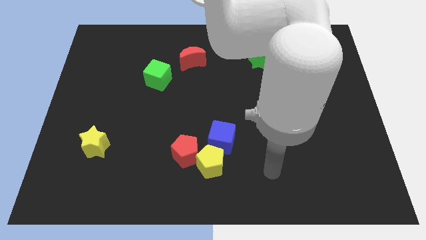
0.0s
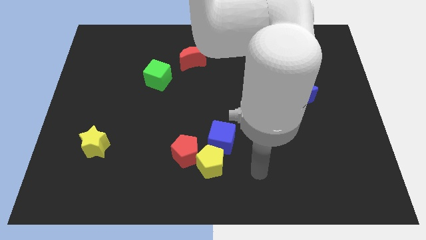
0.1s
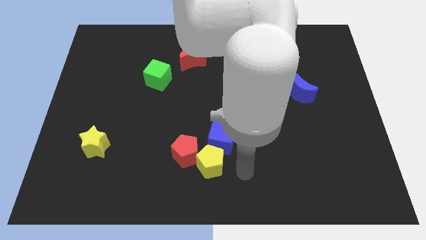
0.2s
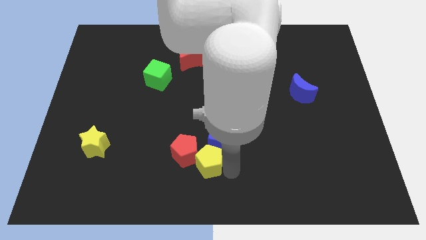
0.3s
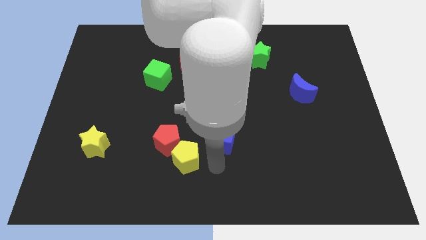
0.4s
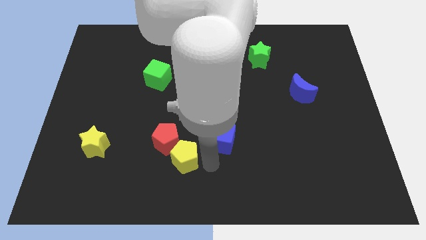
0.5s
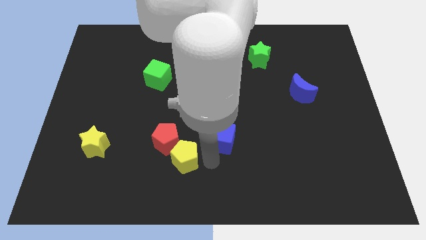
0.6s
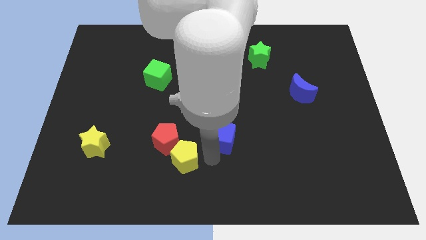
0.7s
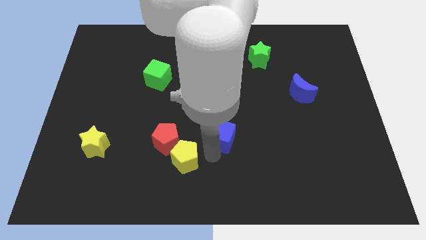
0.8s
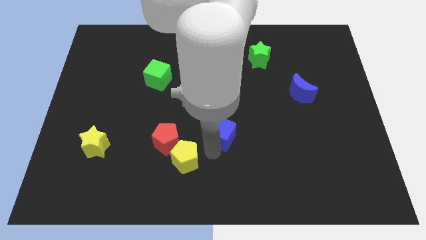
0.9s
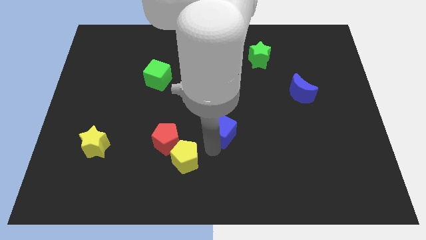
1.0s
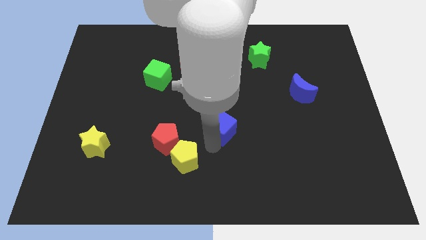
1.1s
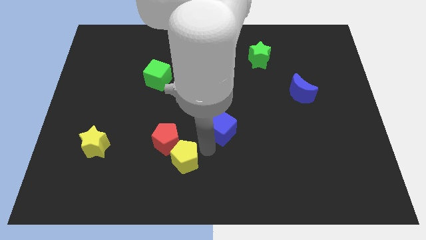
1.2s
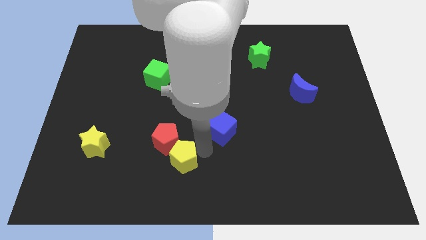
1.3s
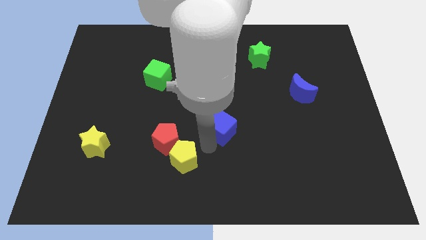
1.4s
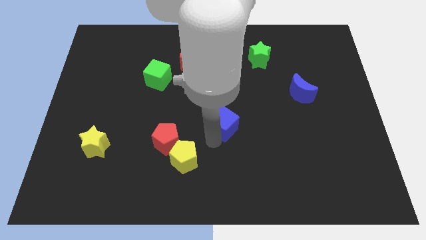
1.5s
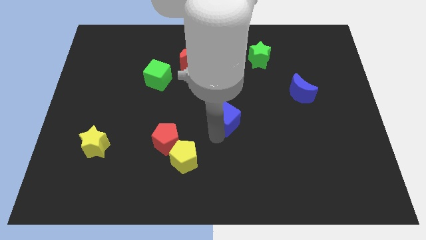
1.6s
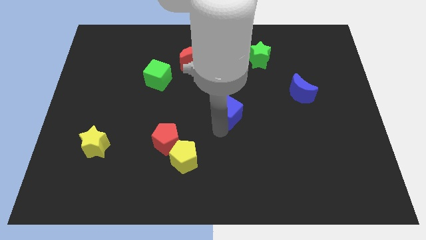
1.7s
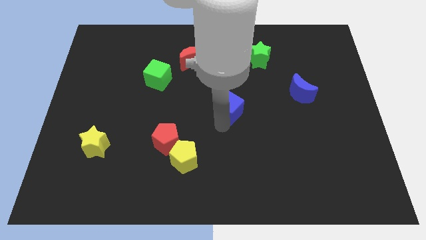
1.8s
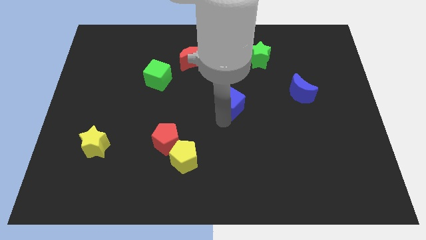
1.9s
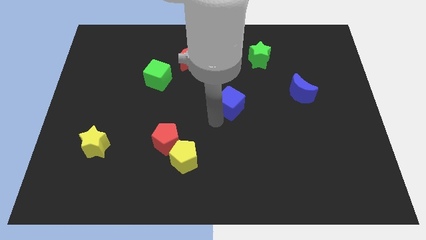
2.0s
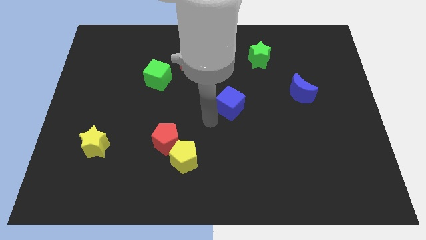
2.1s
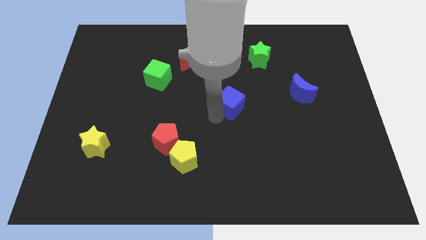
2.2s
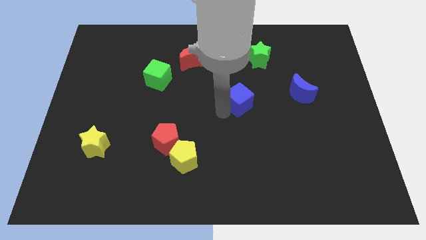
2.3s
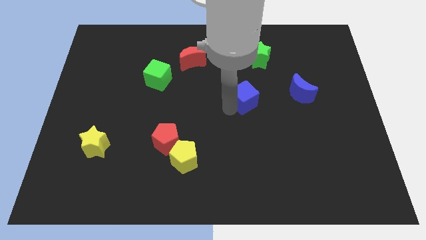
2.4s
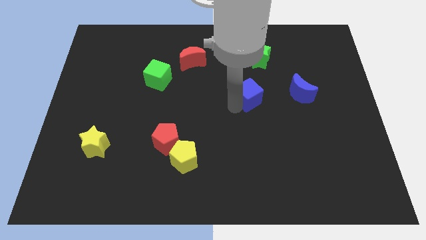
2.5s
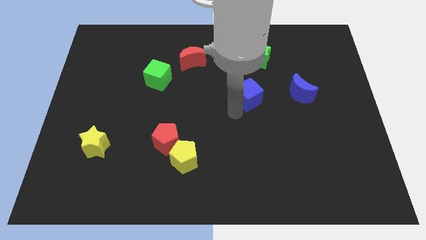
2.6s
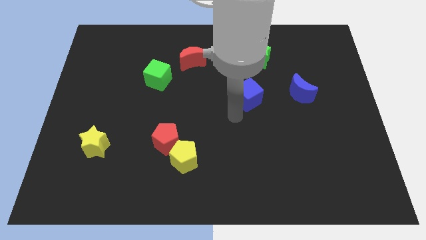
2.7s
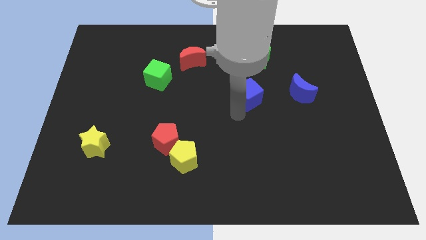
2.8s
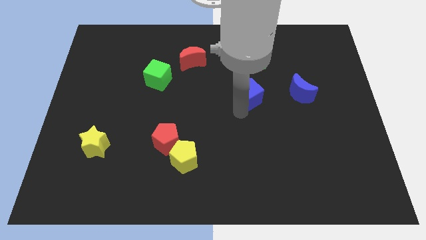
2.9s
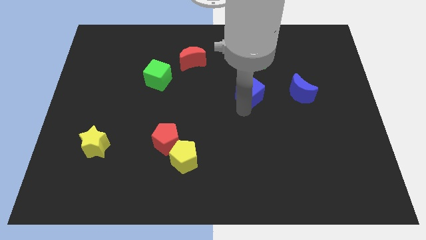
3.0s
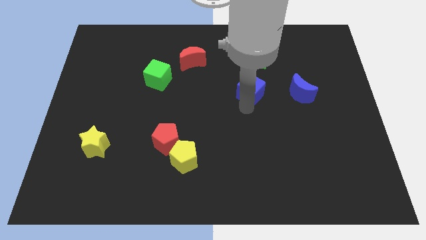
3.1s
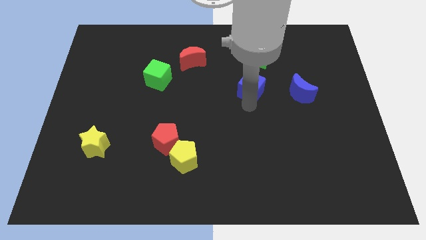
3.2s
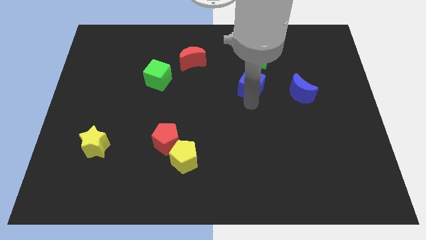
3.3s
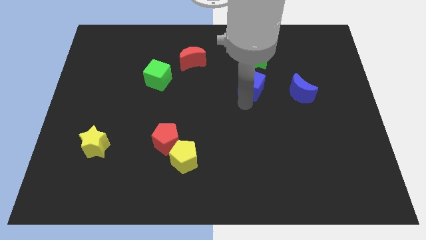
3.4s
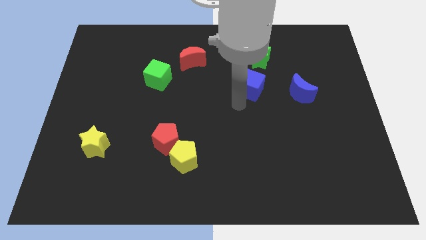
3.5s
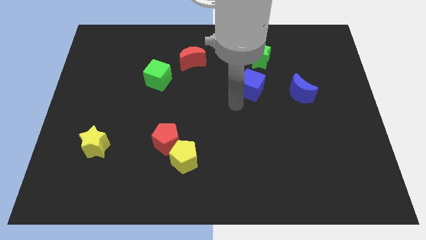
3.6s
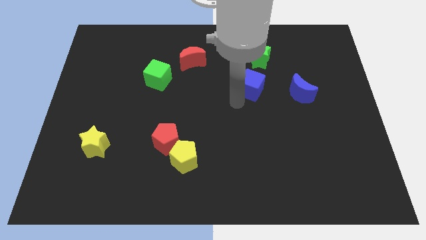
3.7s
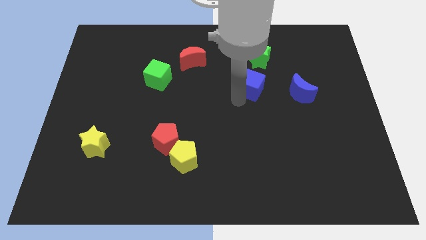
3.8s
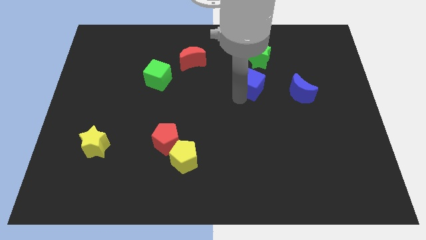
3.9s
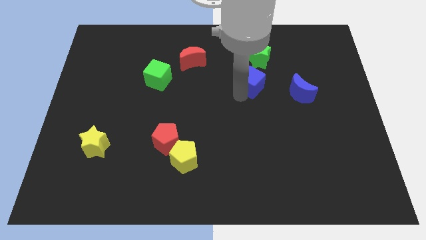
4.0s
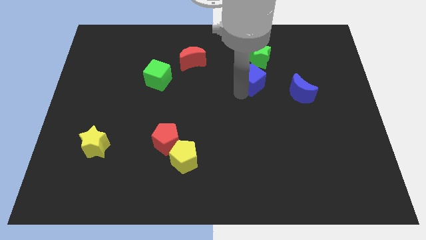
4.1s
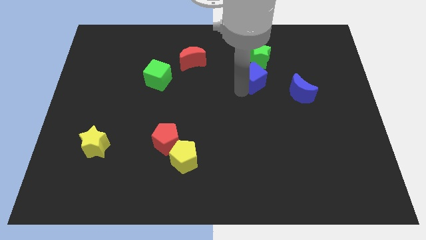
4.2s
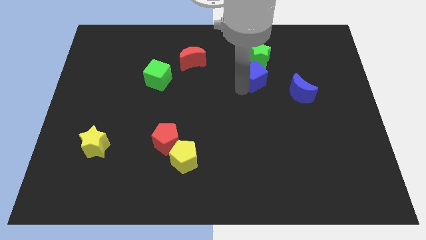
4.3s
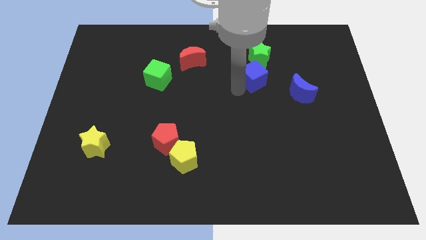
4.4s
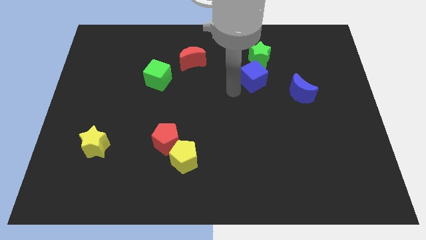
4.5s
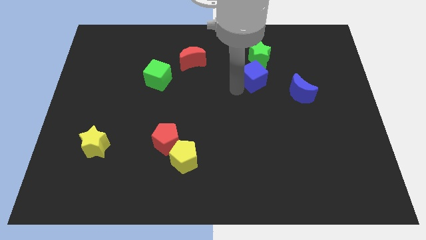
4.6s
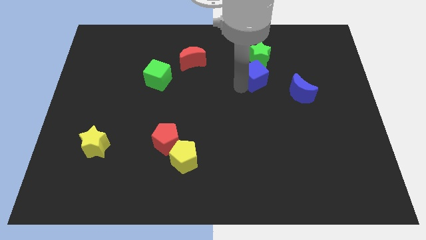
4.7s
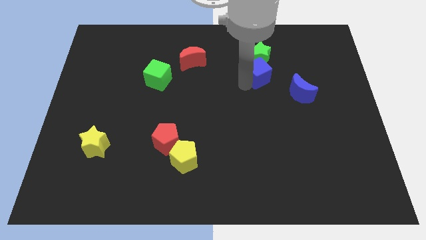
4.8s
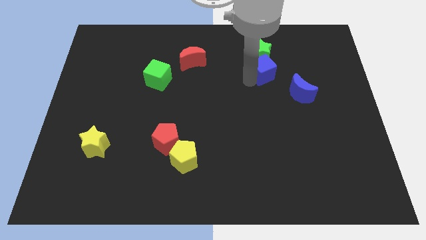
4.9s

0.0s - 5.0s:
push the blue cube up and to the right diagonally

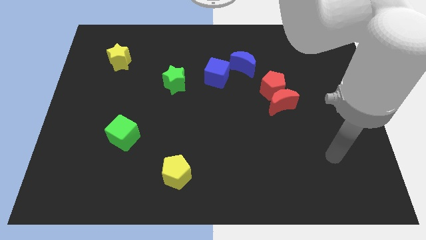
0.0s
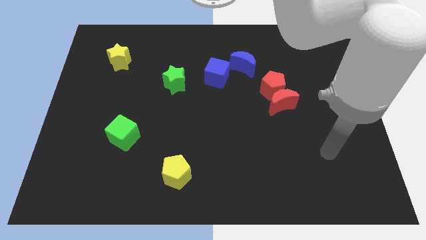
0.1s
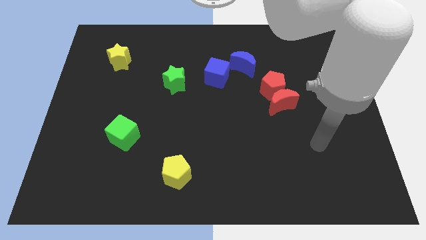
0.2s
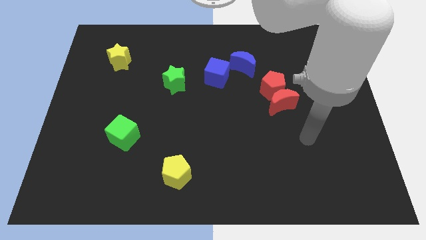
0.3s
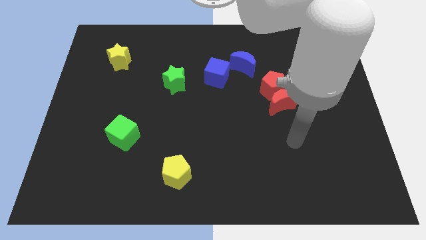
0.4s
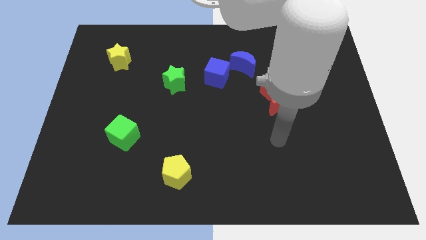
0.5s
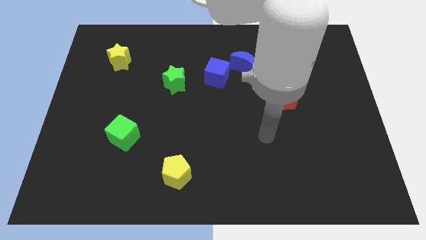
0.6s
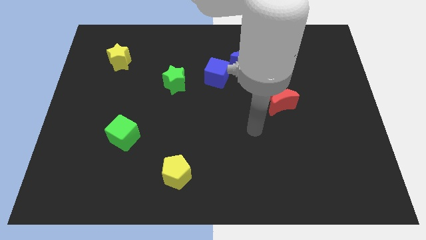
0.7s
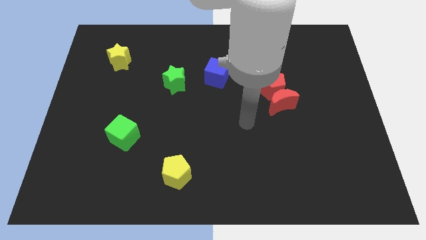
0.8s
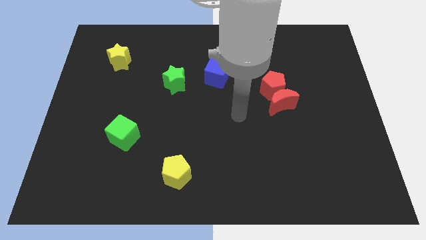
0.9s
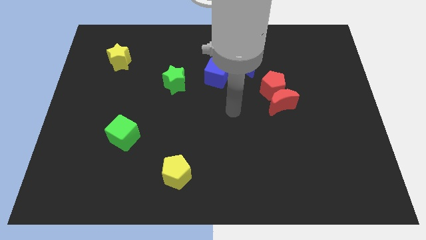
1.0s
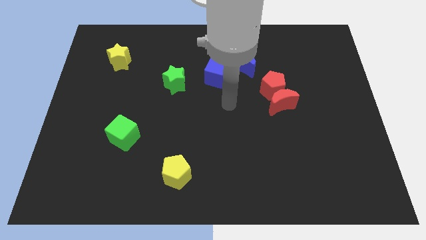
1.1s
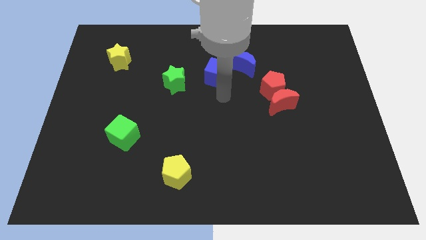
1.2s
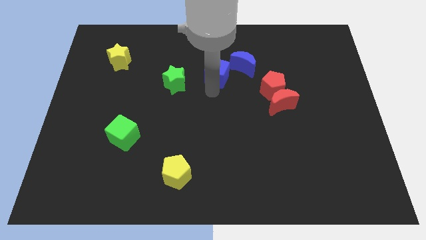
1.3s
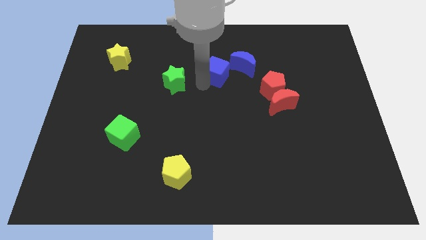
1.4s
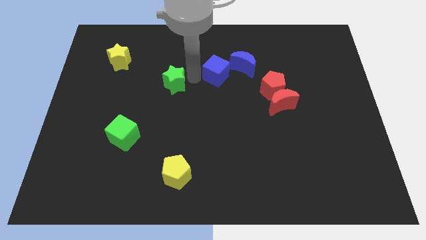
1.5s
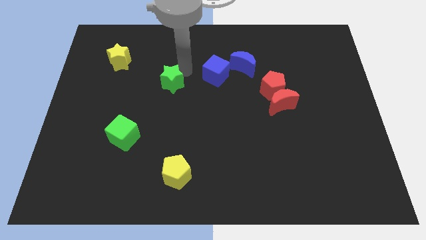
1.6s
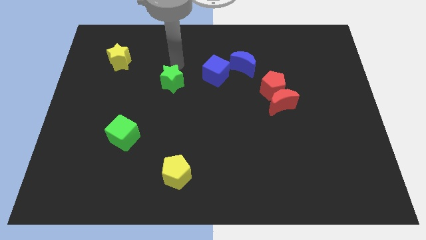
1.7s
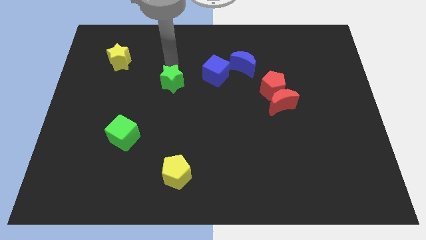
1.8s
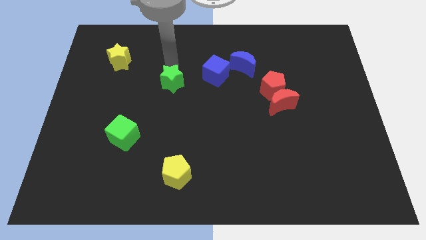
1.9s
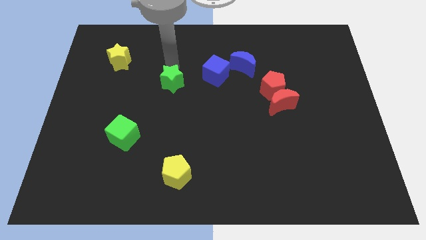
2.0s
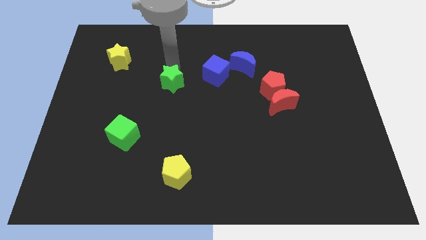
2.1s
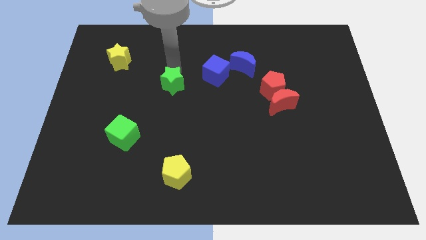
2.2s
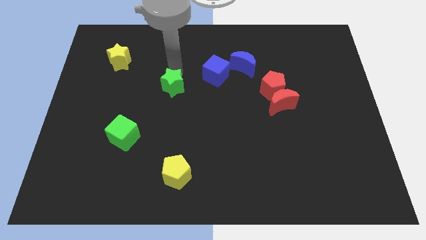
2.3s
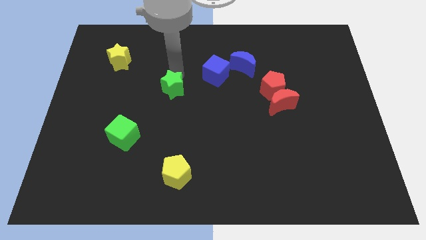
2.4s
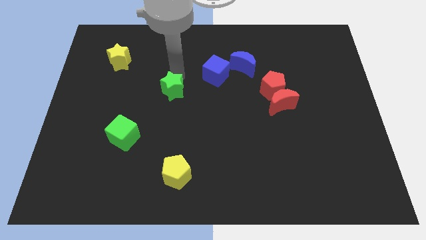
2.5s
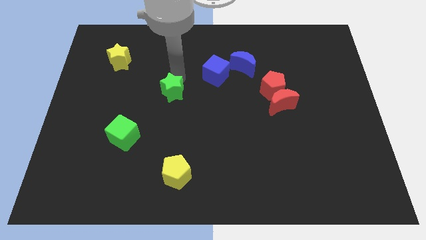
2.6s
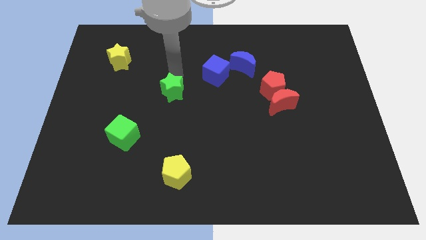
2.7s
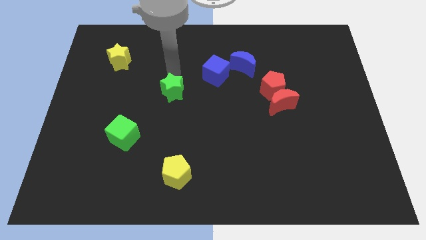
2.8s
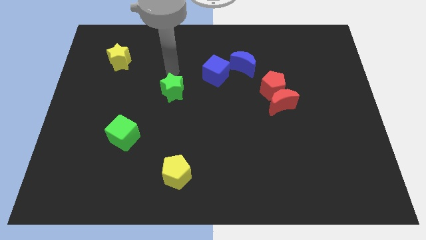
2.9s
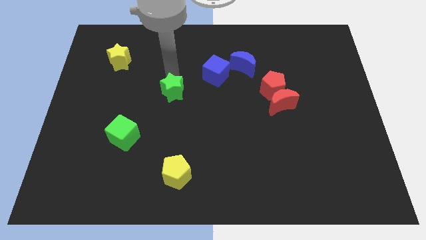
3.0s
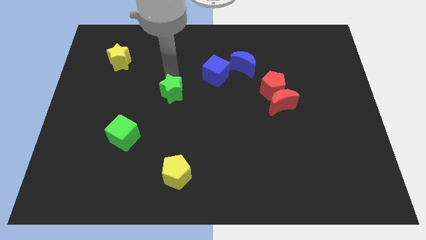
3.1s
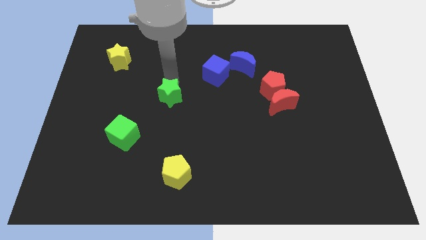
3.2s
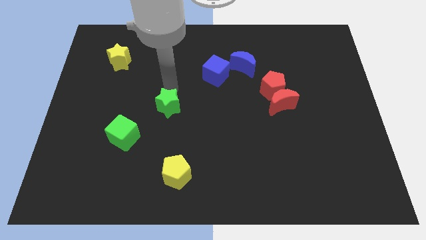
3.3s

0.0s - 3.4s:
push the green star down somewhat
